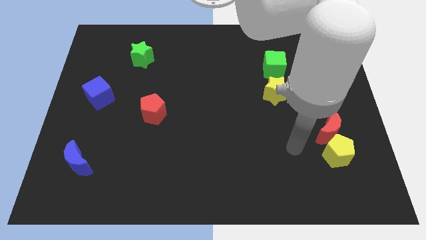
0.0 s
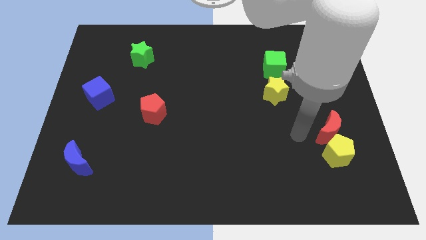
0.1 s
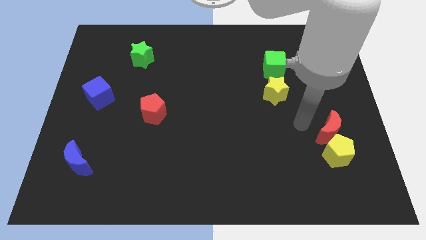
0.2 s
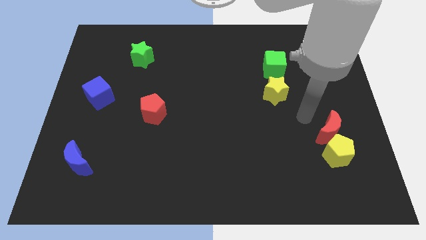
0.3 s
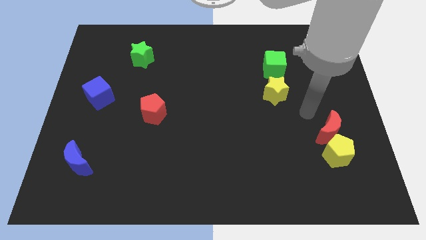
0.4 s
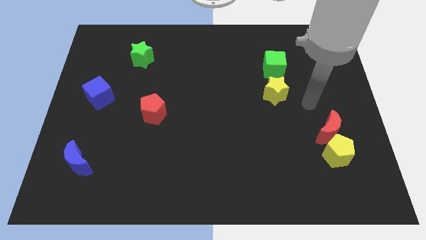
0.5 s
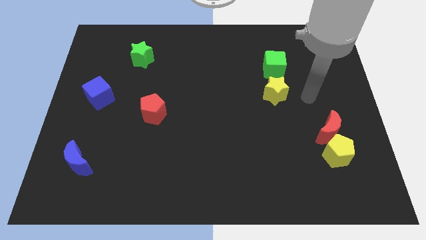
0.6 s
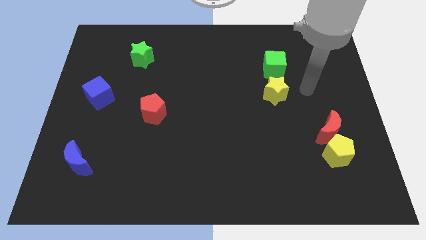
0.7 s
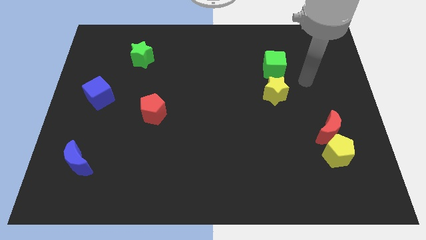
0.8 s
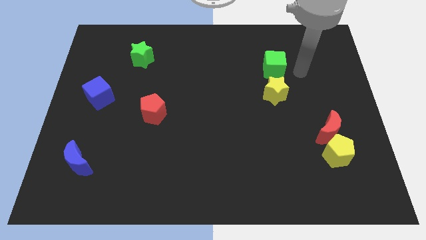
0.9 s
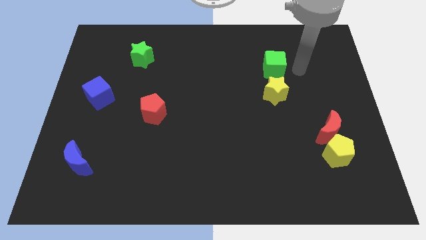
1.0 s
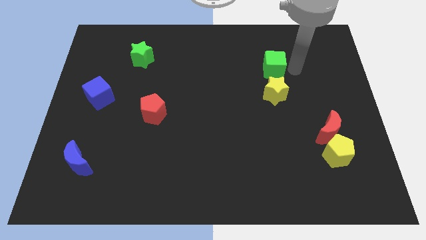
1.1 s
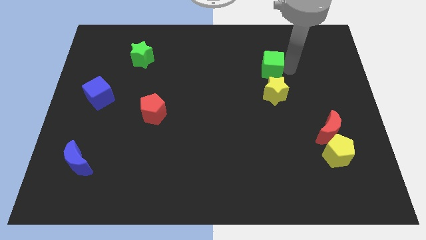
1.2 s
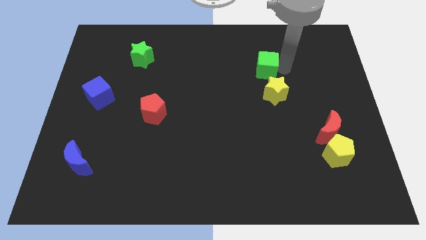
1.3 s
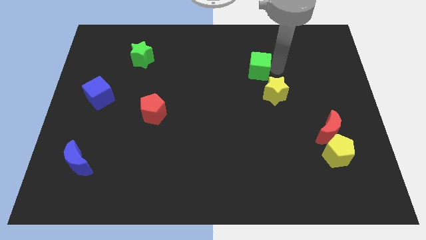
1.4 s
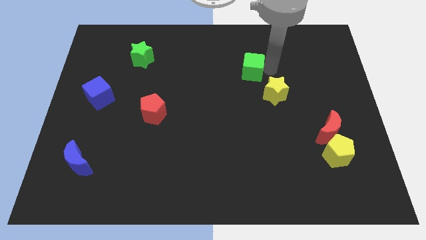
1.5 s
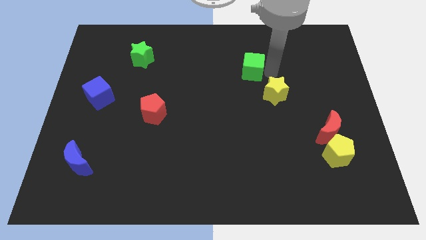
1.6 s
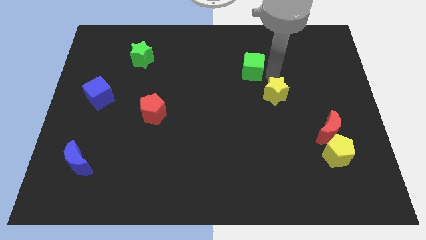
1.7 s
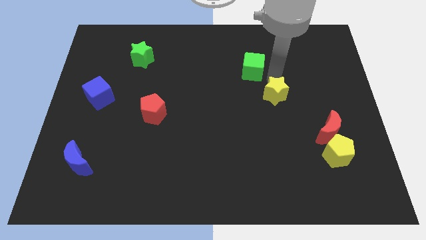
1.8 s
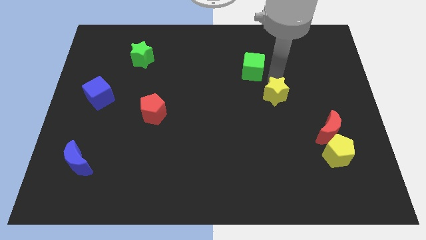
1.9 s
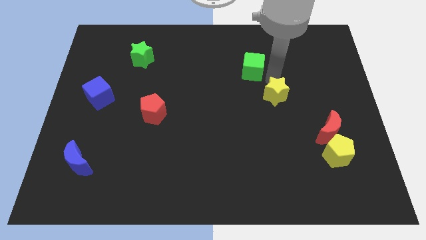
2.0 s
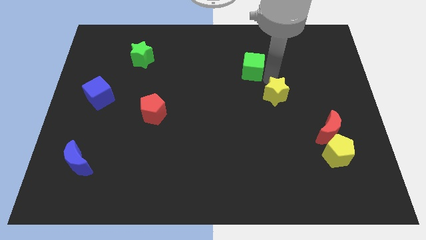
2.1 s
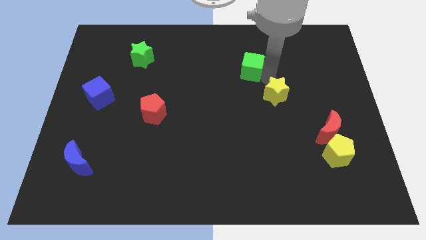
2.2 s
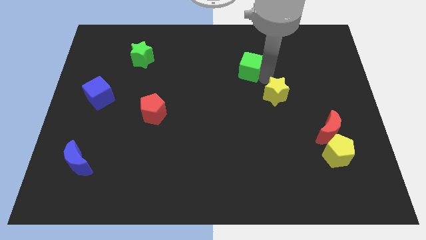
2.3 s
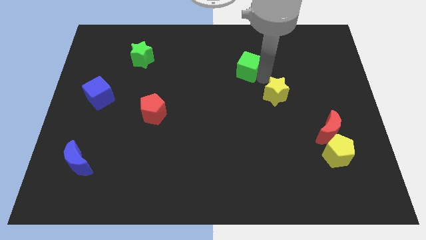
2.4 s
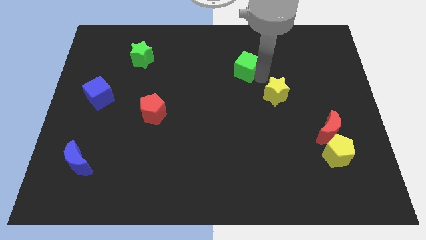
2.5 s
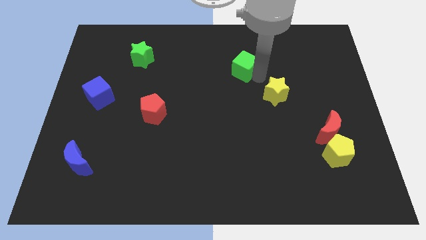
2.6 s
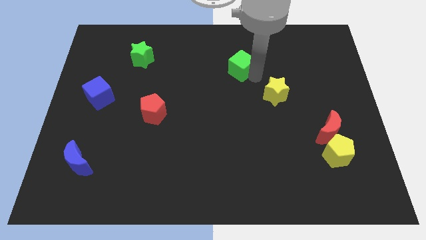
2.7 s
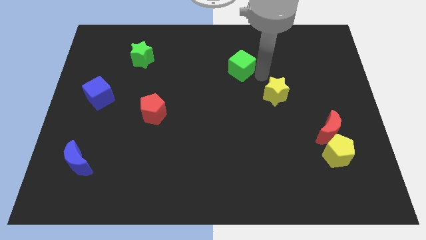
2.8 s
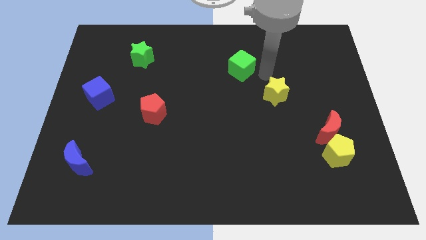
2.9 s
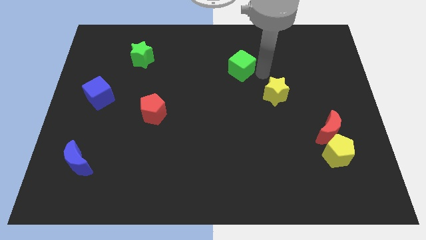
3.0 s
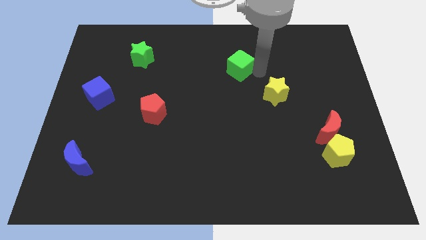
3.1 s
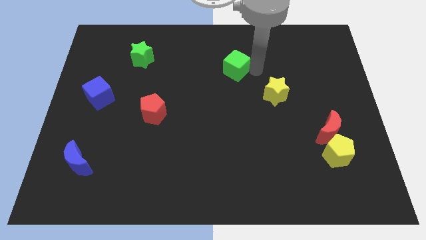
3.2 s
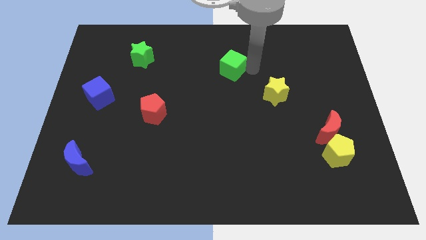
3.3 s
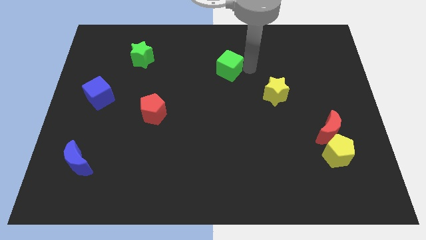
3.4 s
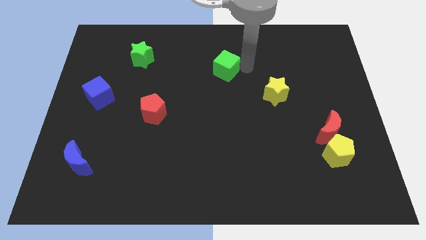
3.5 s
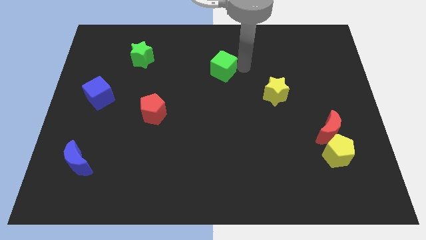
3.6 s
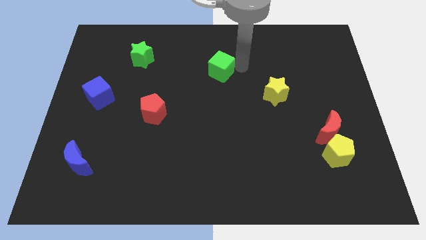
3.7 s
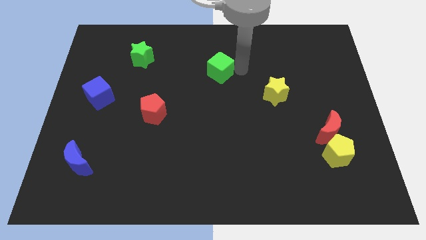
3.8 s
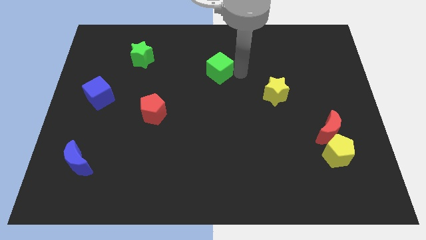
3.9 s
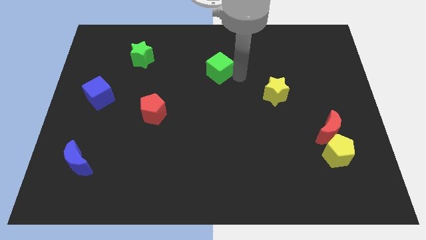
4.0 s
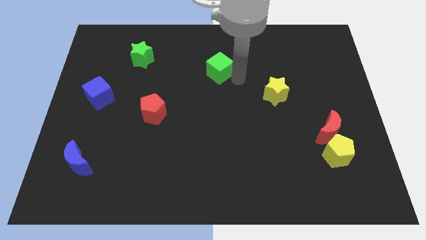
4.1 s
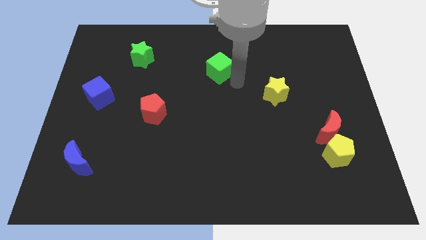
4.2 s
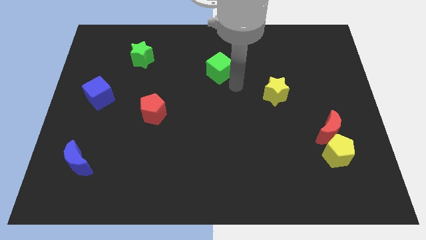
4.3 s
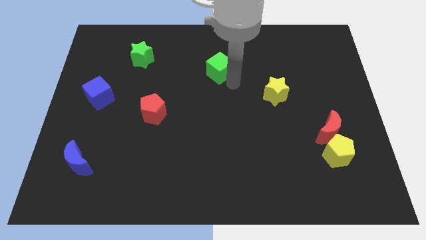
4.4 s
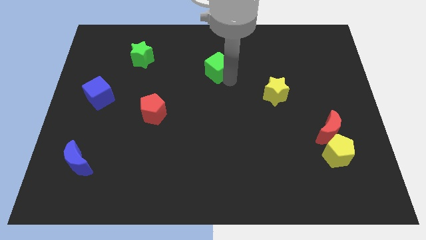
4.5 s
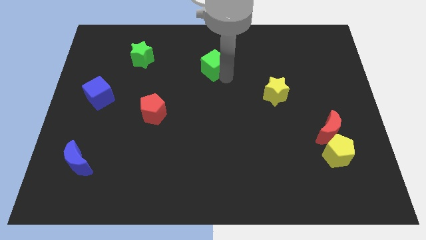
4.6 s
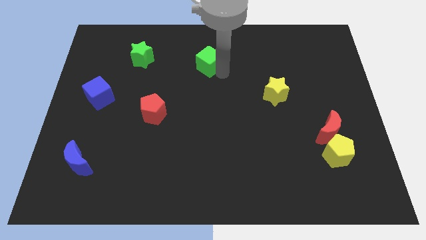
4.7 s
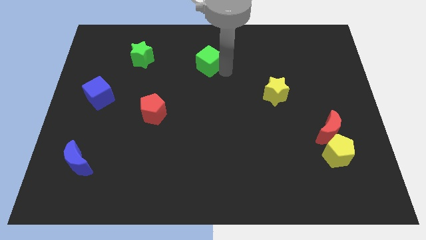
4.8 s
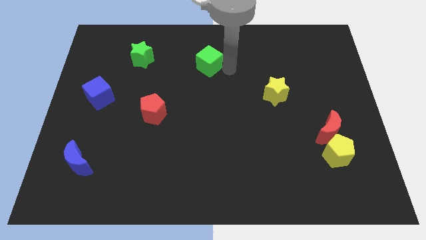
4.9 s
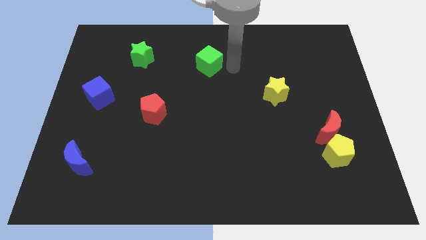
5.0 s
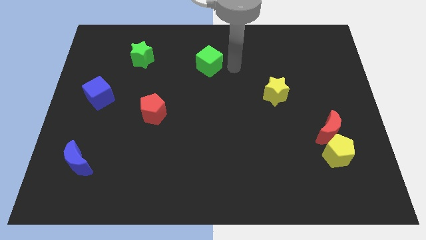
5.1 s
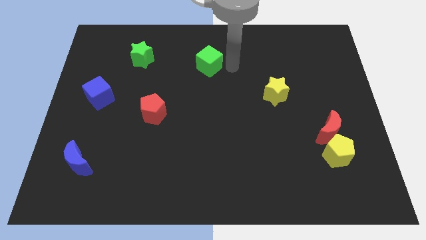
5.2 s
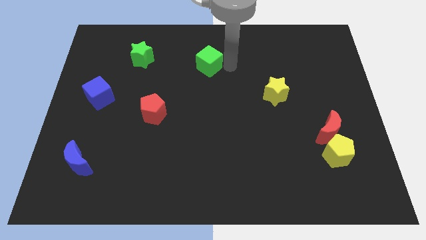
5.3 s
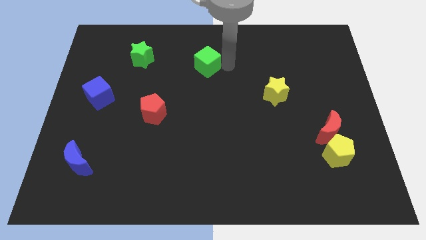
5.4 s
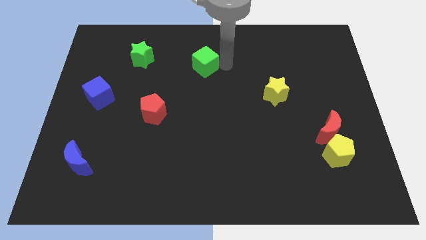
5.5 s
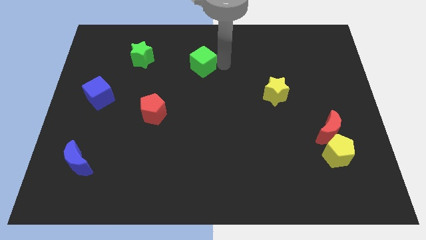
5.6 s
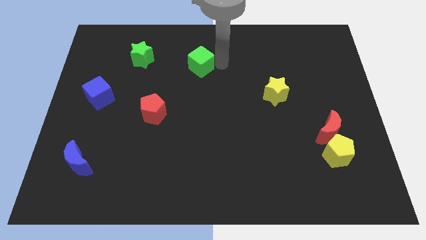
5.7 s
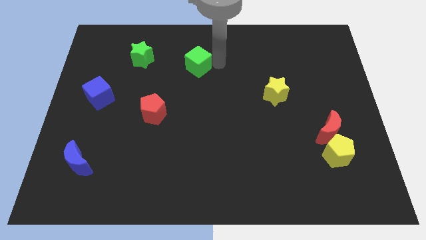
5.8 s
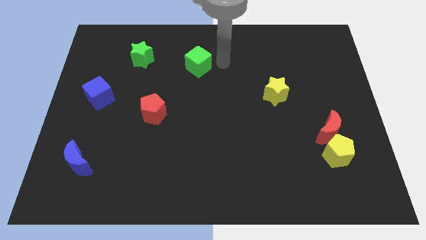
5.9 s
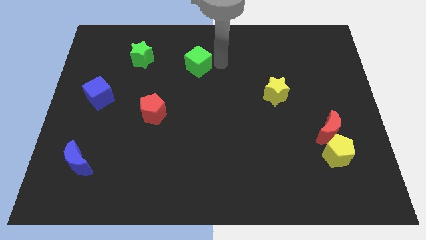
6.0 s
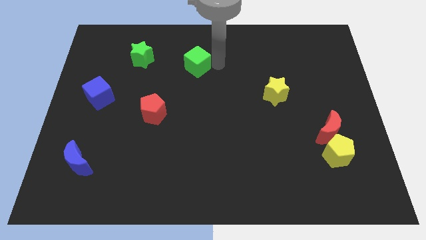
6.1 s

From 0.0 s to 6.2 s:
move the green cube to the left

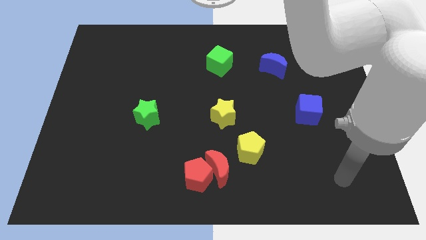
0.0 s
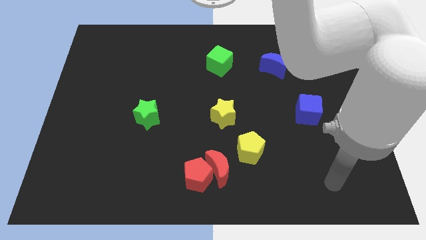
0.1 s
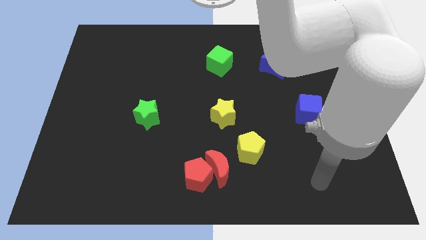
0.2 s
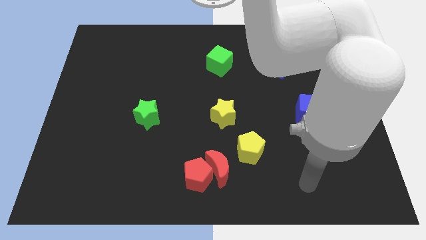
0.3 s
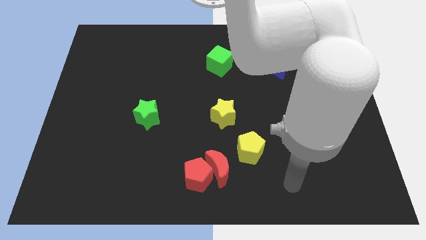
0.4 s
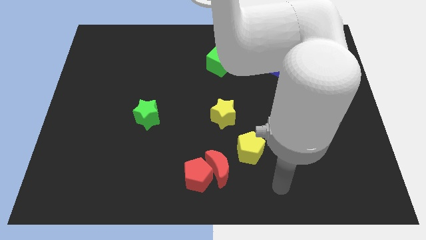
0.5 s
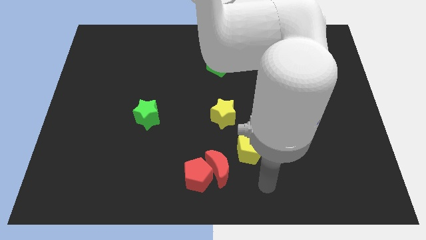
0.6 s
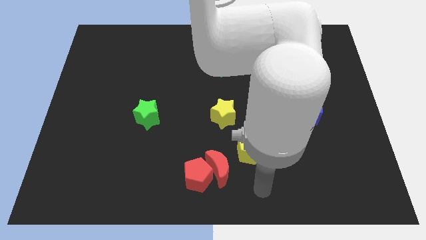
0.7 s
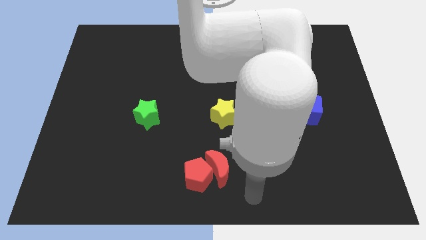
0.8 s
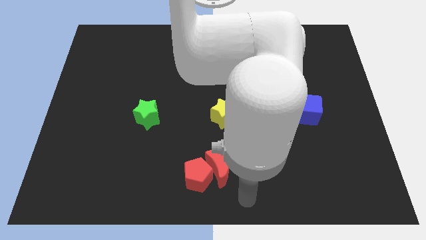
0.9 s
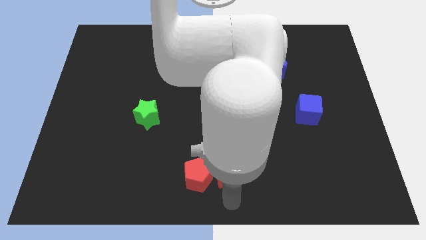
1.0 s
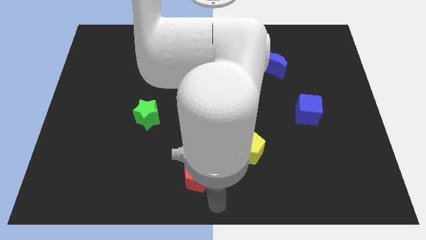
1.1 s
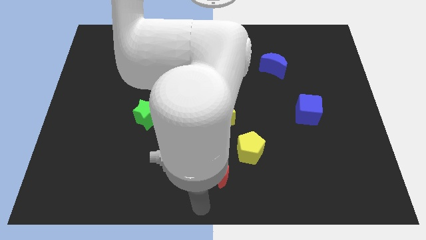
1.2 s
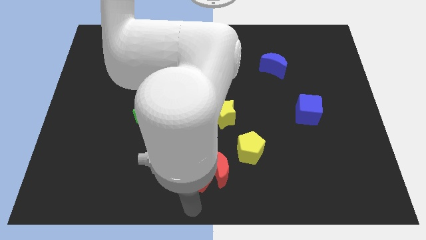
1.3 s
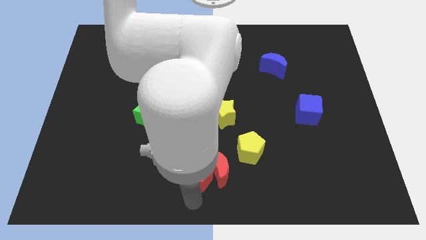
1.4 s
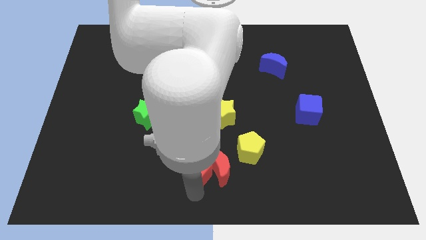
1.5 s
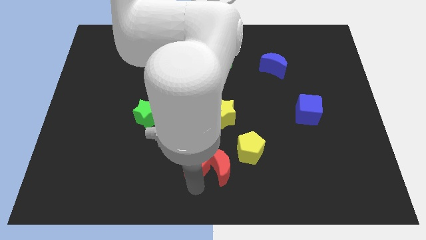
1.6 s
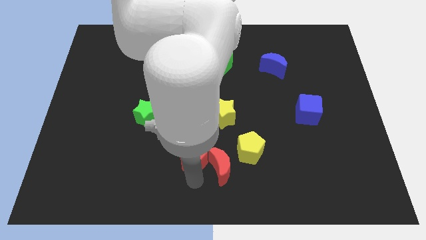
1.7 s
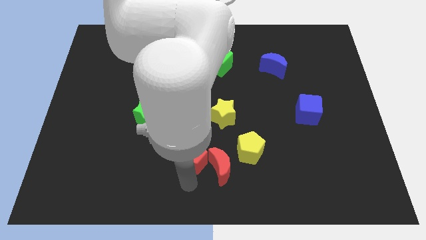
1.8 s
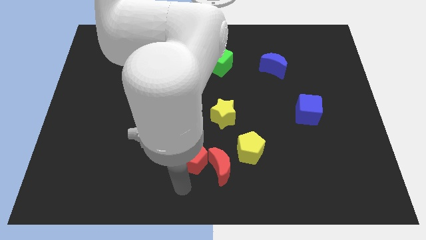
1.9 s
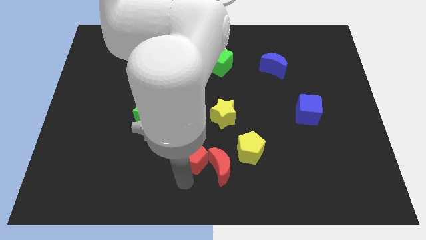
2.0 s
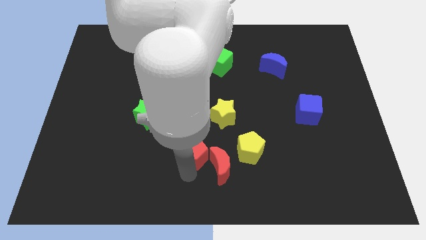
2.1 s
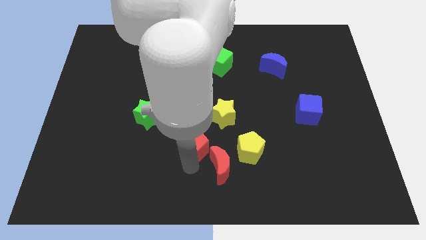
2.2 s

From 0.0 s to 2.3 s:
push the red pentagon up somewhat
